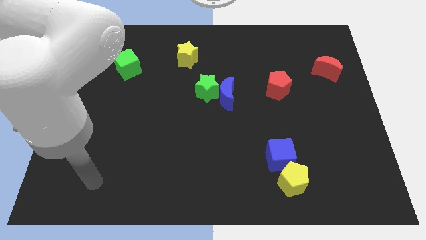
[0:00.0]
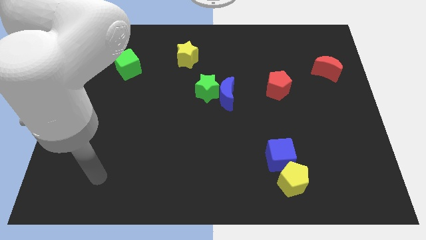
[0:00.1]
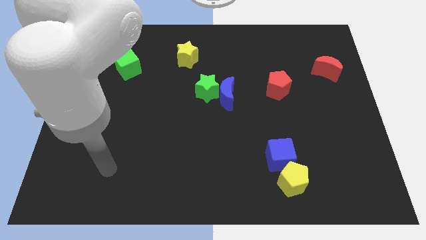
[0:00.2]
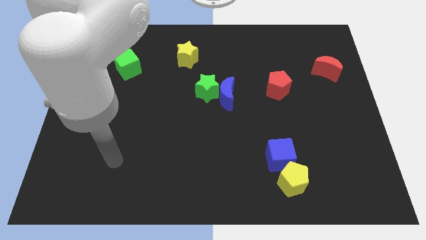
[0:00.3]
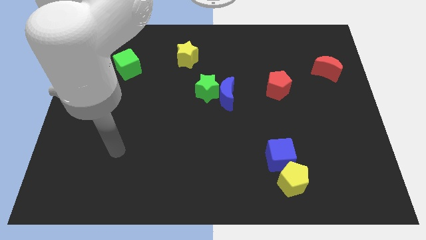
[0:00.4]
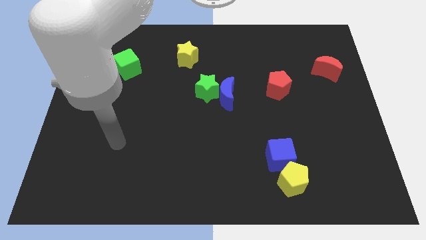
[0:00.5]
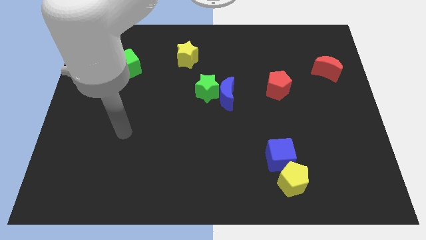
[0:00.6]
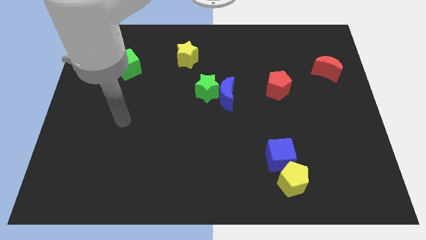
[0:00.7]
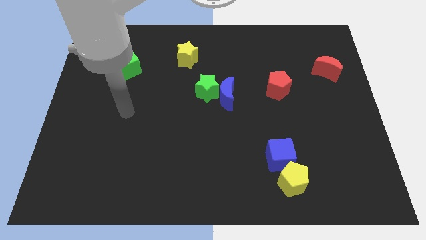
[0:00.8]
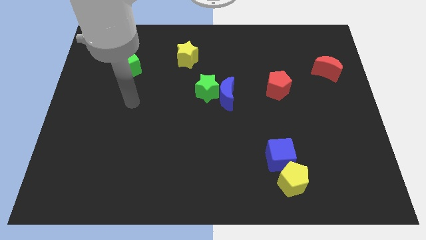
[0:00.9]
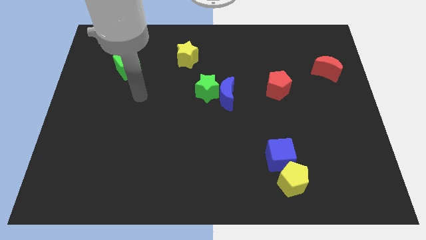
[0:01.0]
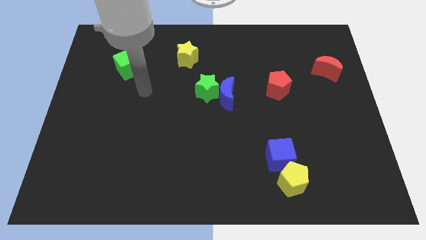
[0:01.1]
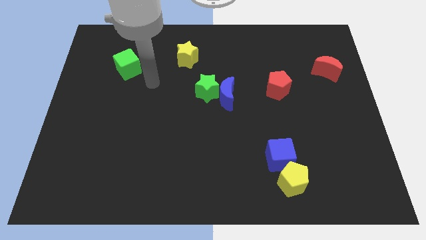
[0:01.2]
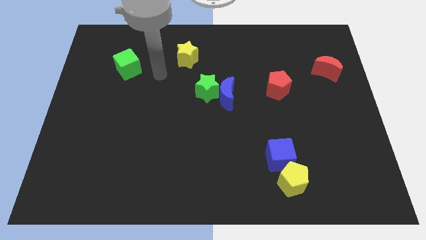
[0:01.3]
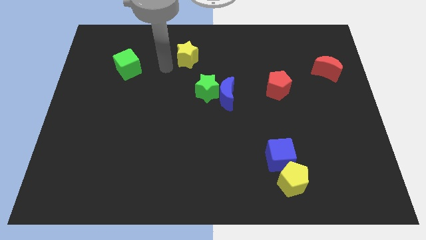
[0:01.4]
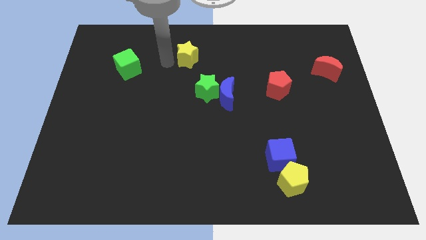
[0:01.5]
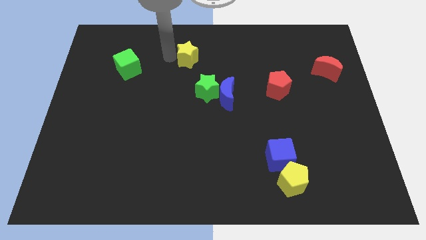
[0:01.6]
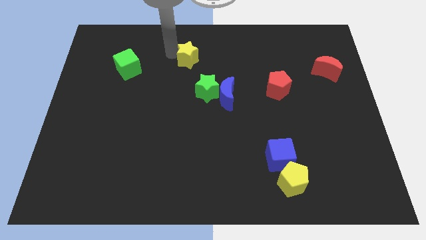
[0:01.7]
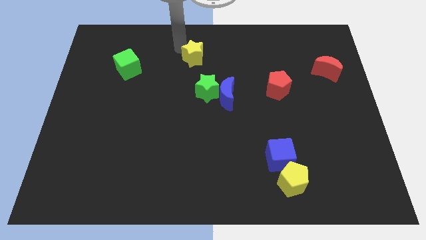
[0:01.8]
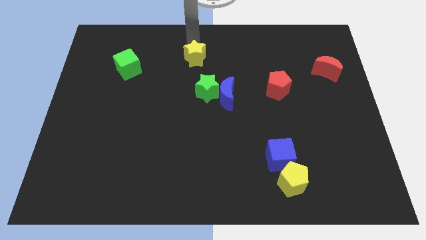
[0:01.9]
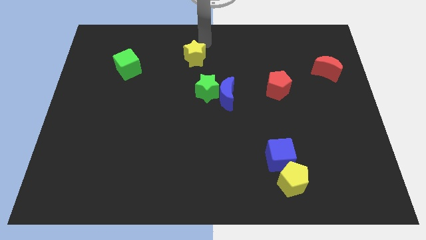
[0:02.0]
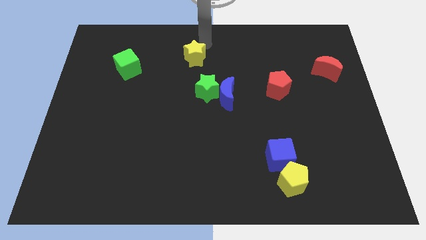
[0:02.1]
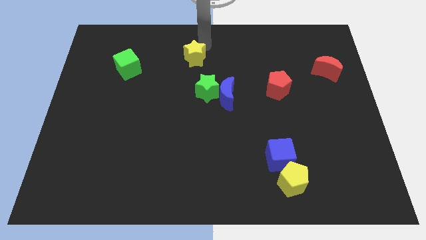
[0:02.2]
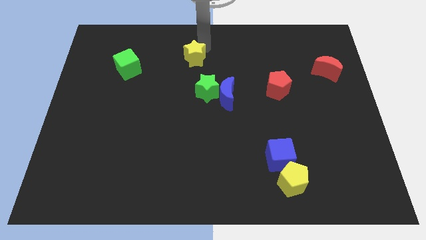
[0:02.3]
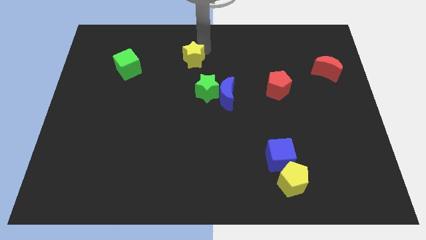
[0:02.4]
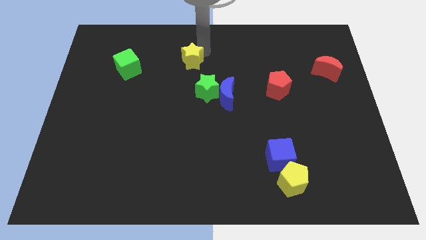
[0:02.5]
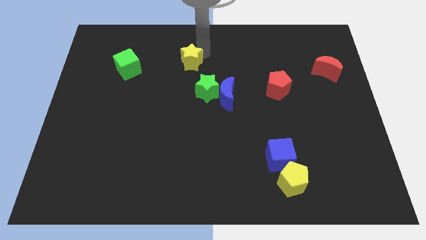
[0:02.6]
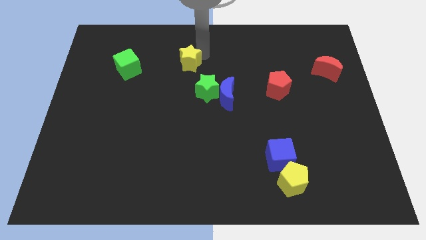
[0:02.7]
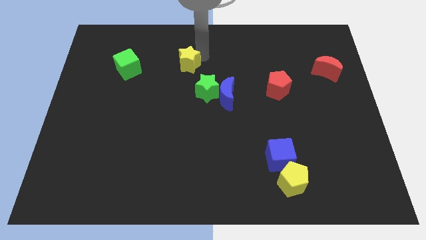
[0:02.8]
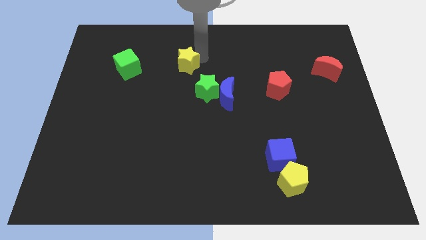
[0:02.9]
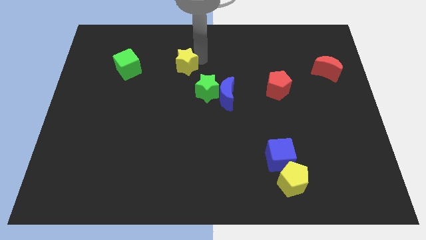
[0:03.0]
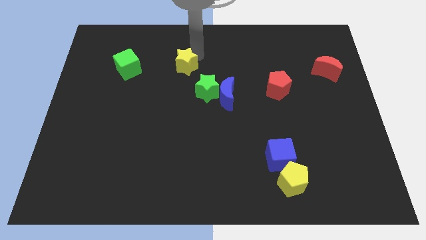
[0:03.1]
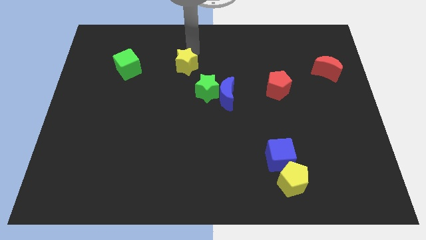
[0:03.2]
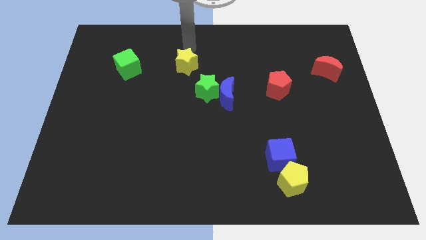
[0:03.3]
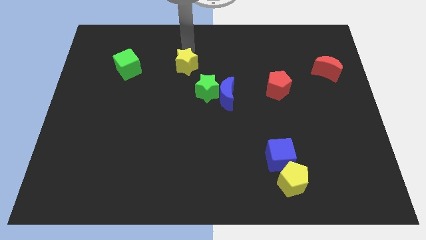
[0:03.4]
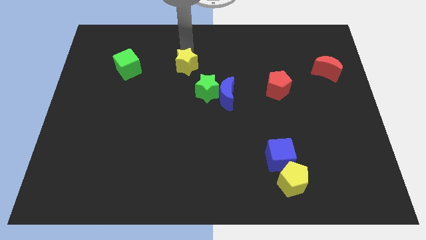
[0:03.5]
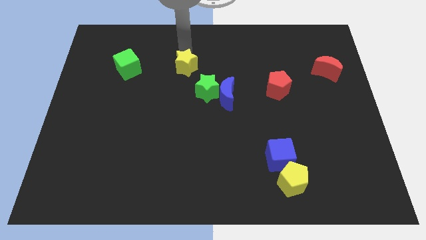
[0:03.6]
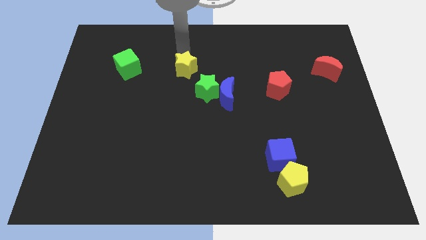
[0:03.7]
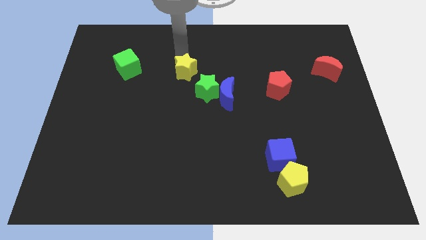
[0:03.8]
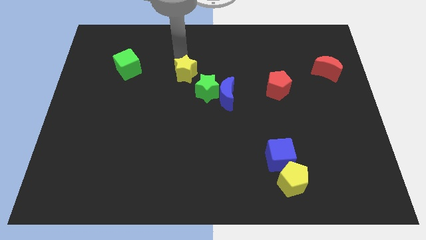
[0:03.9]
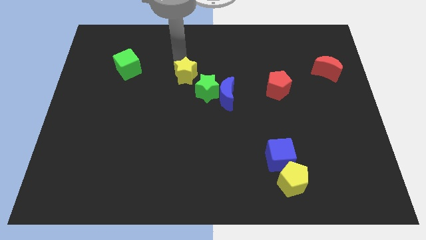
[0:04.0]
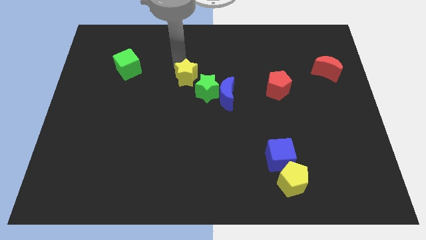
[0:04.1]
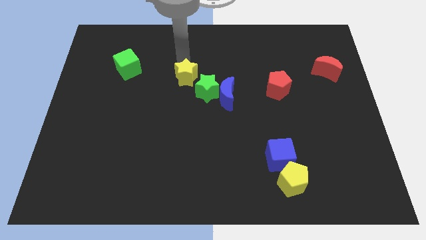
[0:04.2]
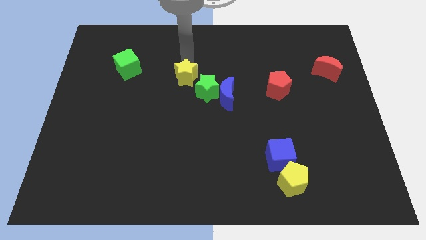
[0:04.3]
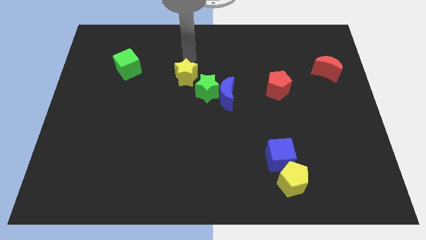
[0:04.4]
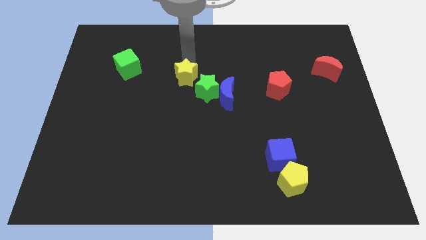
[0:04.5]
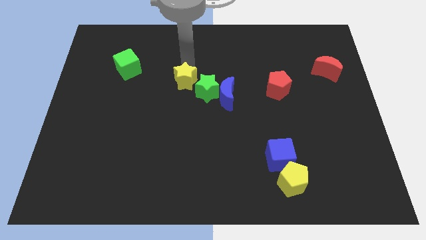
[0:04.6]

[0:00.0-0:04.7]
move the yellow star down a little

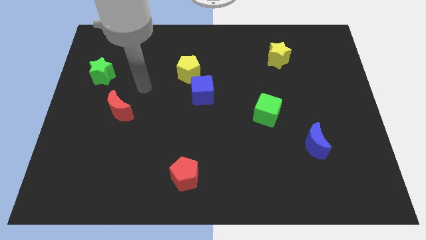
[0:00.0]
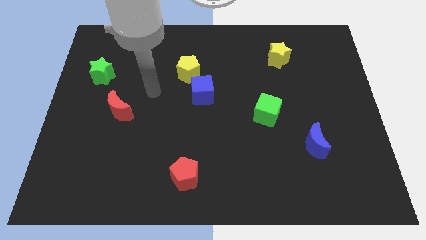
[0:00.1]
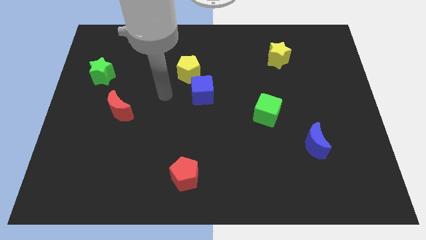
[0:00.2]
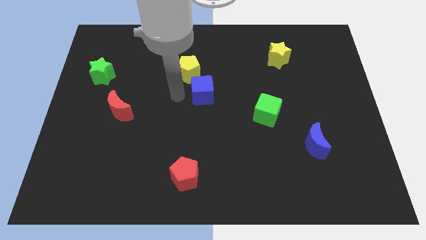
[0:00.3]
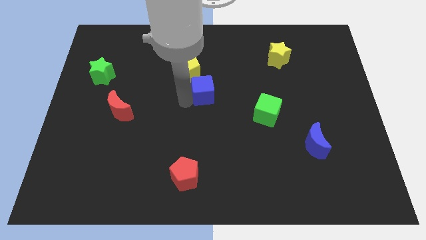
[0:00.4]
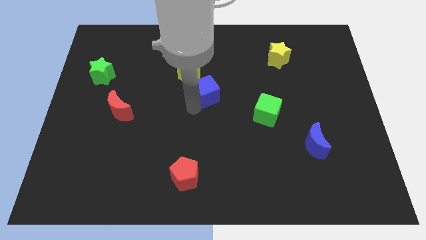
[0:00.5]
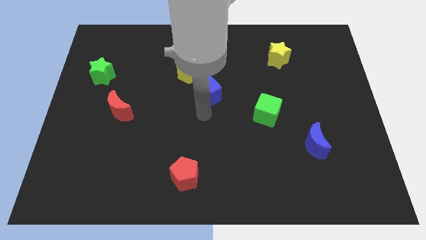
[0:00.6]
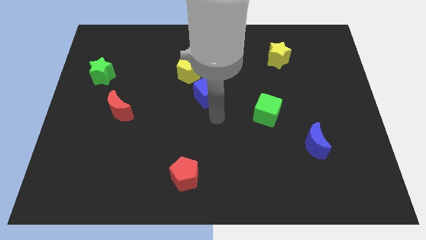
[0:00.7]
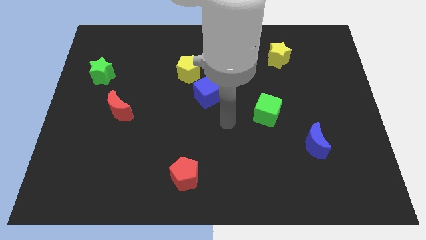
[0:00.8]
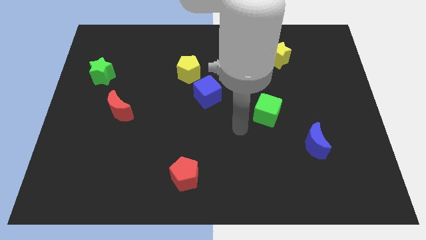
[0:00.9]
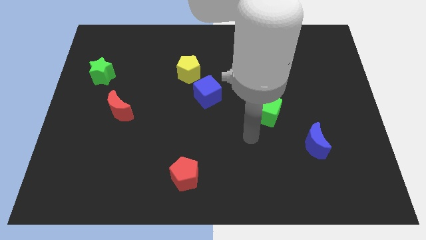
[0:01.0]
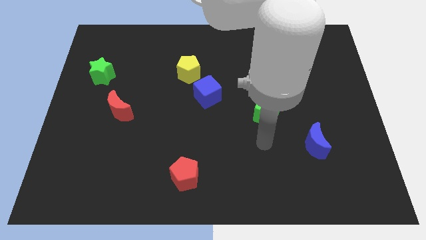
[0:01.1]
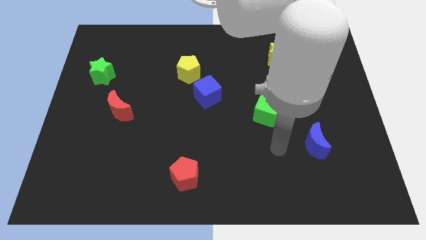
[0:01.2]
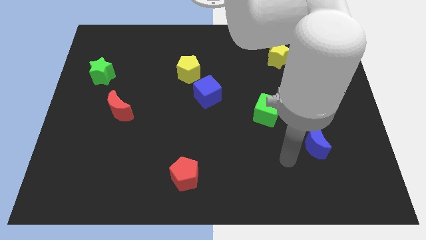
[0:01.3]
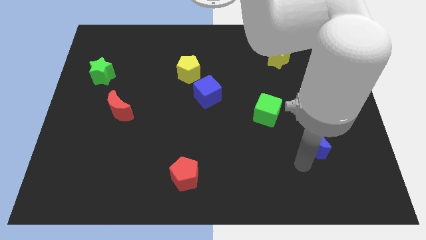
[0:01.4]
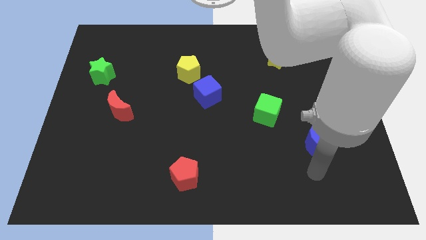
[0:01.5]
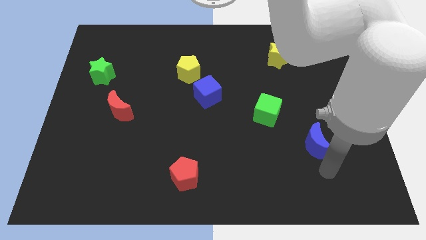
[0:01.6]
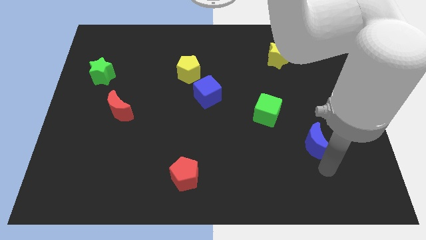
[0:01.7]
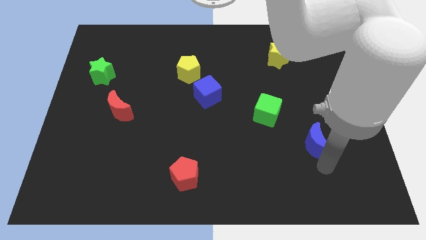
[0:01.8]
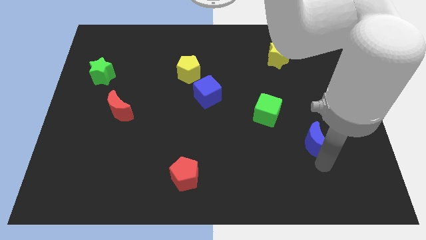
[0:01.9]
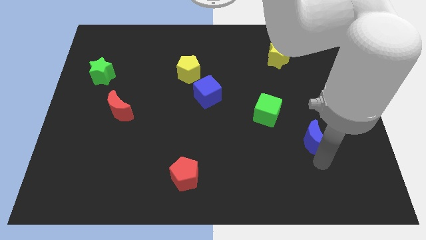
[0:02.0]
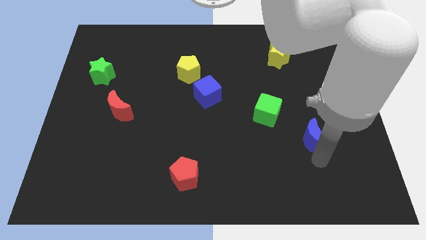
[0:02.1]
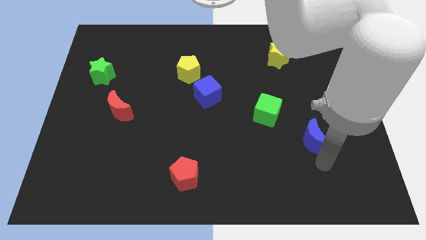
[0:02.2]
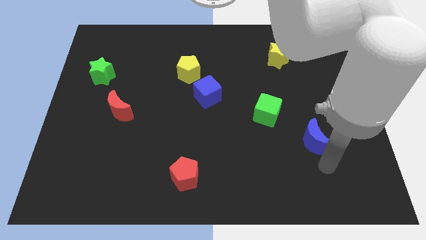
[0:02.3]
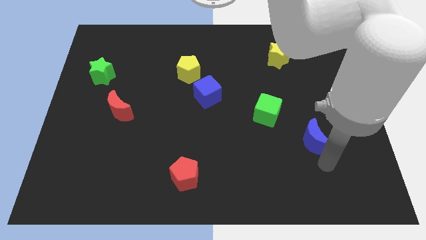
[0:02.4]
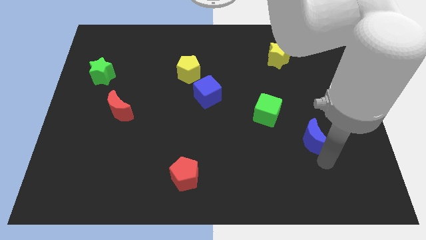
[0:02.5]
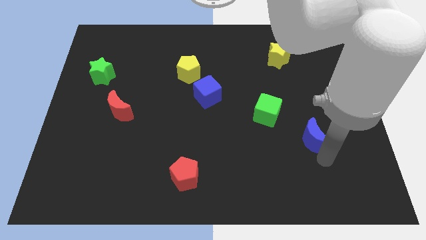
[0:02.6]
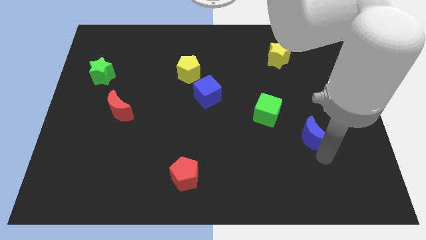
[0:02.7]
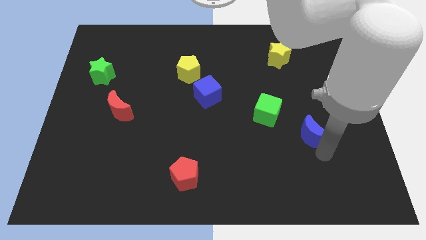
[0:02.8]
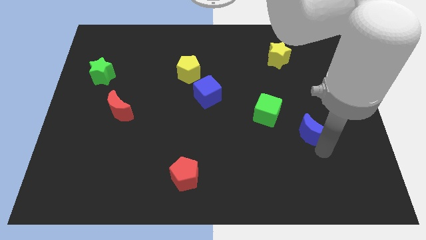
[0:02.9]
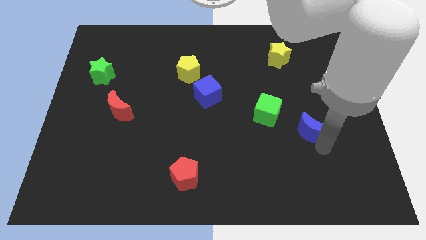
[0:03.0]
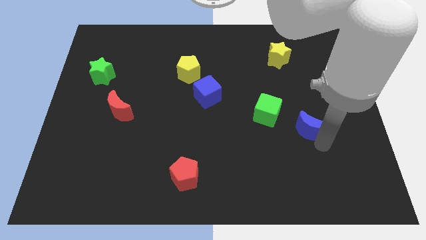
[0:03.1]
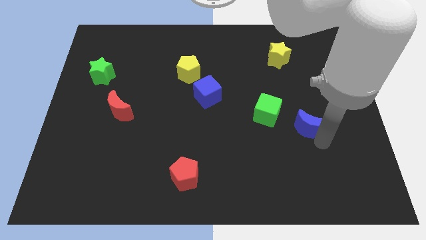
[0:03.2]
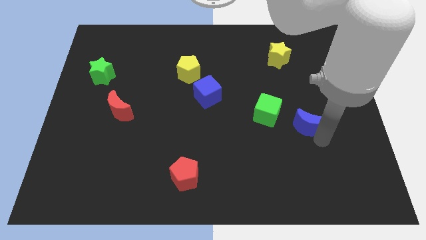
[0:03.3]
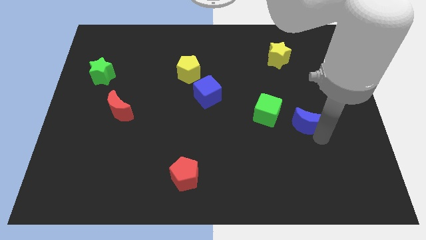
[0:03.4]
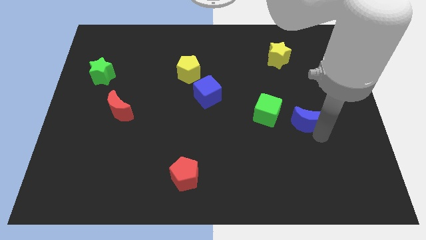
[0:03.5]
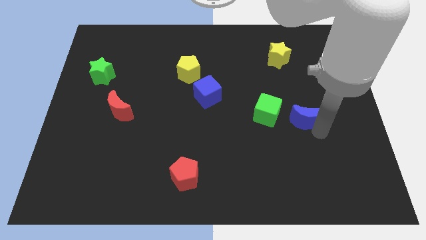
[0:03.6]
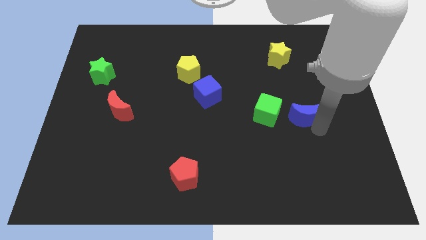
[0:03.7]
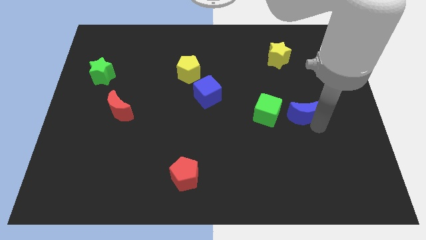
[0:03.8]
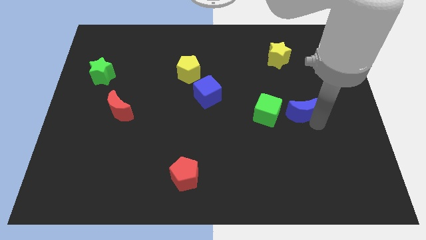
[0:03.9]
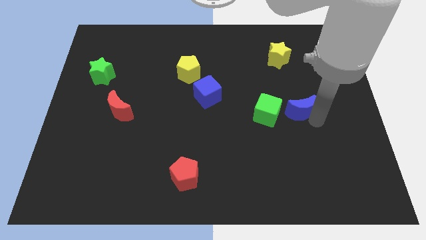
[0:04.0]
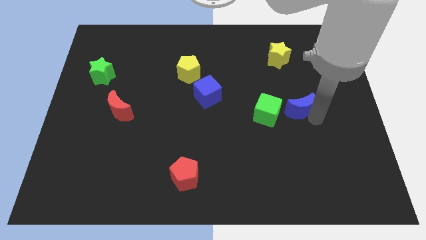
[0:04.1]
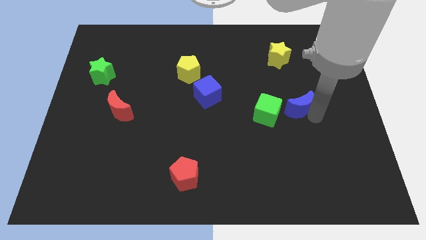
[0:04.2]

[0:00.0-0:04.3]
slide the blue moon up and to the left diagonally a little bit
